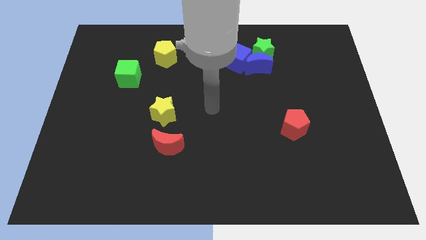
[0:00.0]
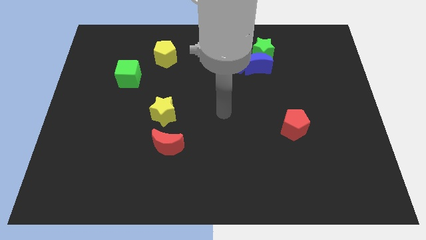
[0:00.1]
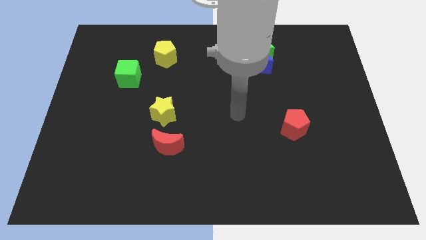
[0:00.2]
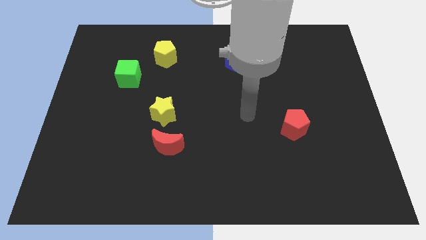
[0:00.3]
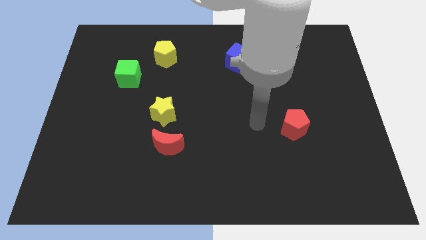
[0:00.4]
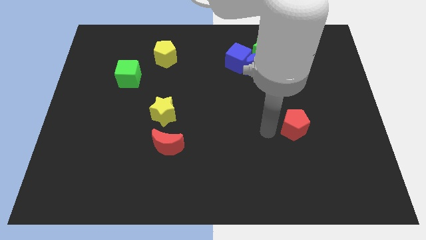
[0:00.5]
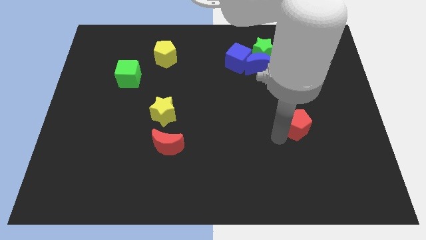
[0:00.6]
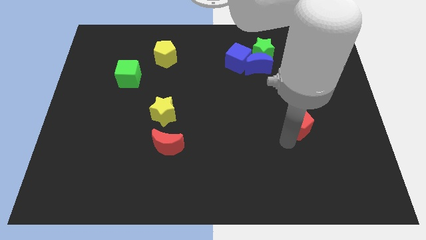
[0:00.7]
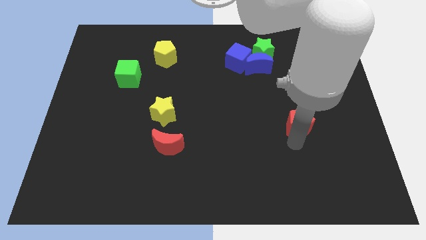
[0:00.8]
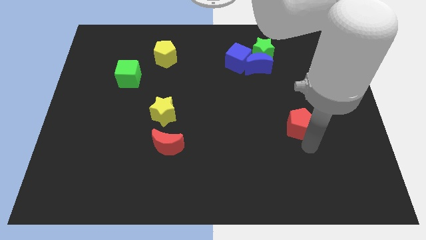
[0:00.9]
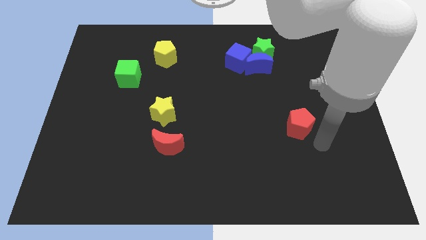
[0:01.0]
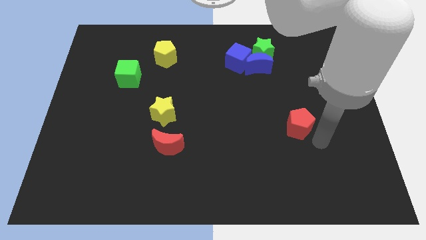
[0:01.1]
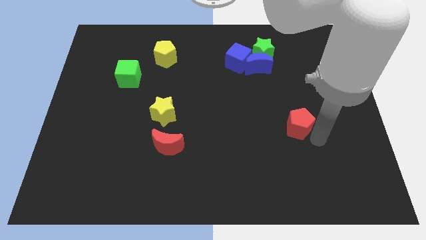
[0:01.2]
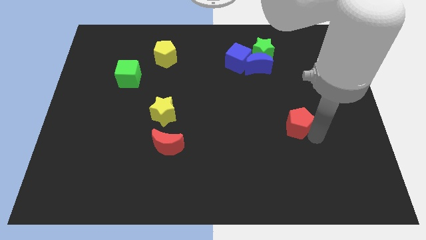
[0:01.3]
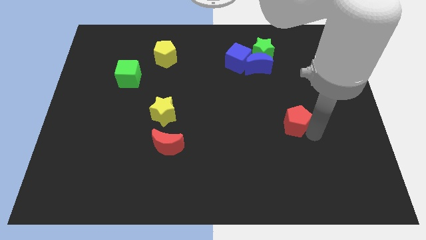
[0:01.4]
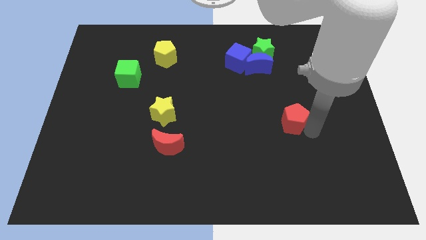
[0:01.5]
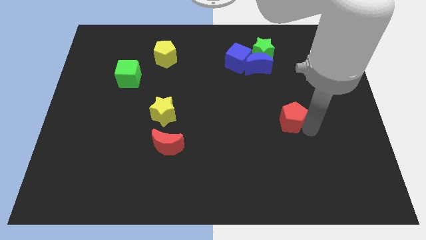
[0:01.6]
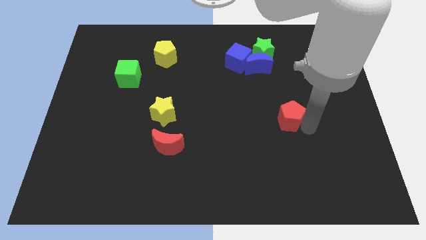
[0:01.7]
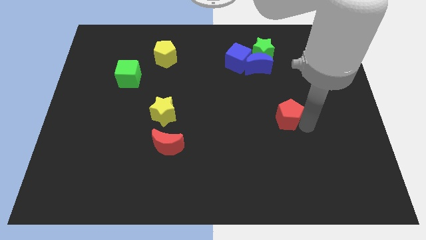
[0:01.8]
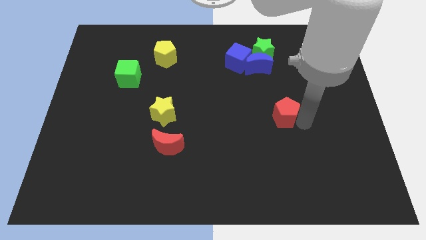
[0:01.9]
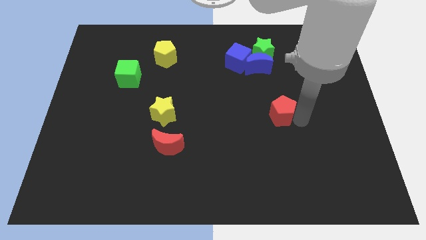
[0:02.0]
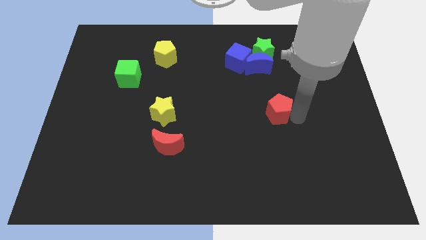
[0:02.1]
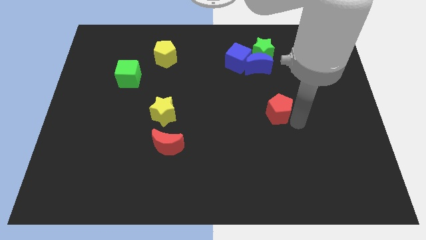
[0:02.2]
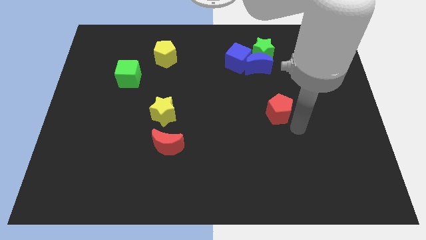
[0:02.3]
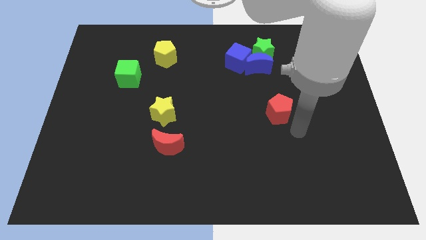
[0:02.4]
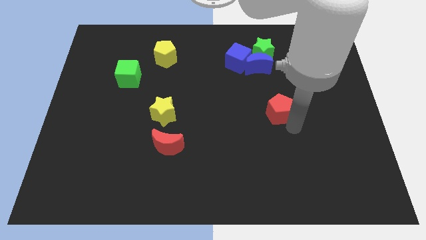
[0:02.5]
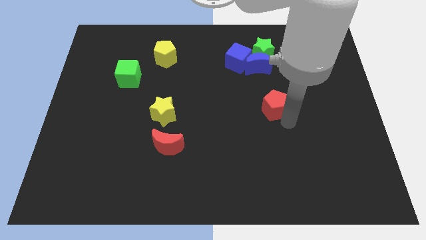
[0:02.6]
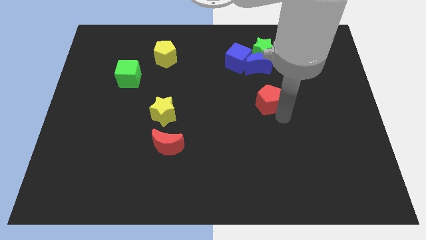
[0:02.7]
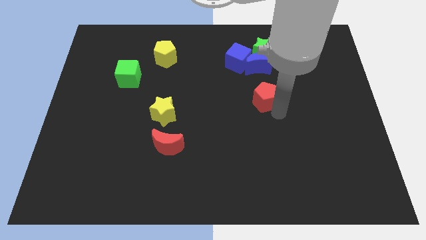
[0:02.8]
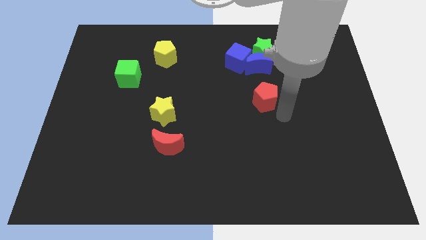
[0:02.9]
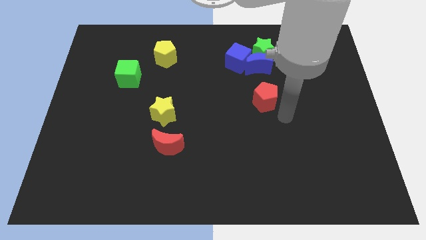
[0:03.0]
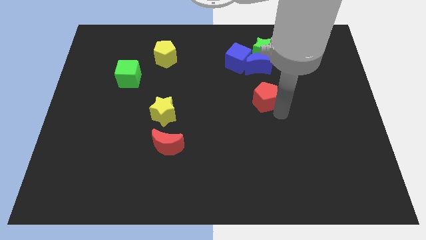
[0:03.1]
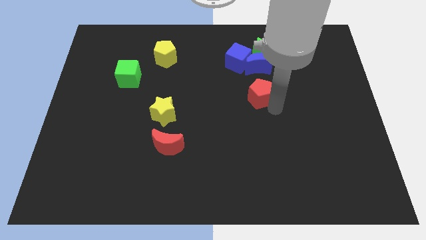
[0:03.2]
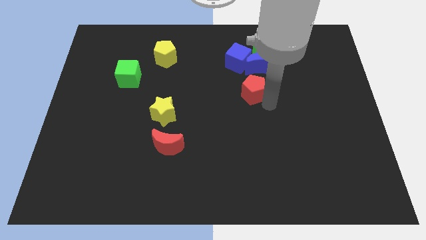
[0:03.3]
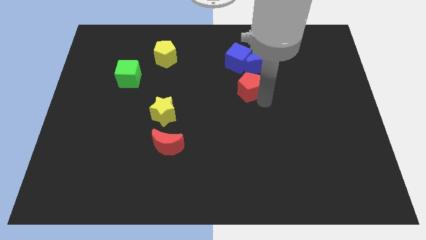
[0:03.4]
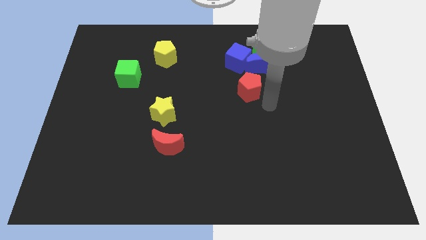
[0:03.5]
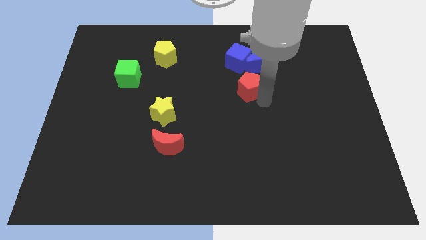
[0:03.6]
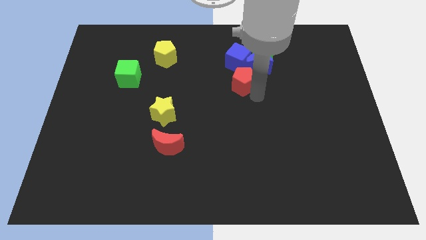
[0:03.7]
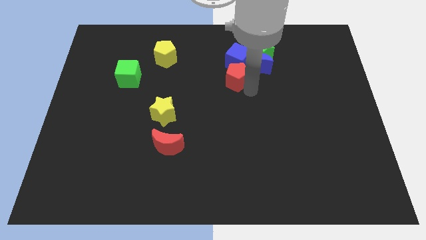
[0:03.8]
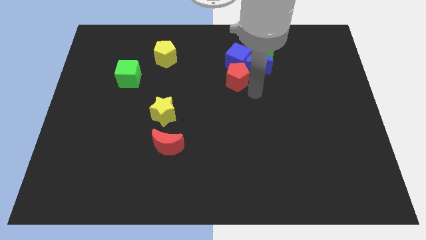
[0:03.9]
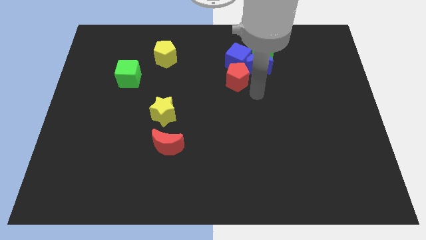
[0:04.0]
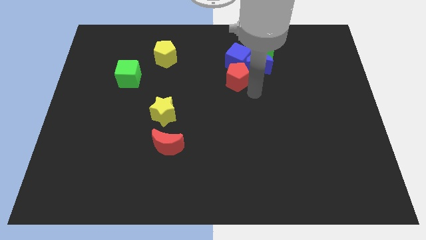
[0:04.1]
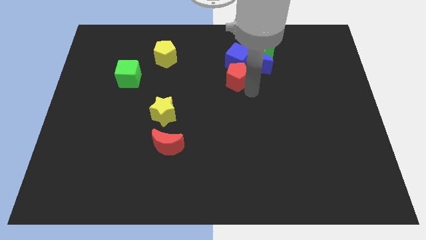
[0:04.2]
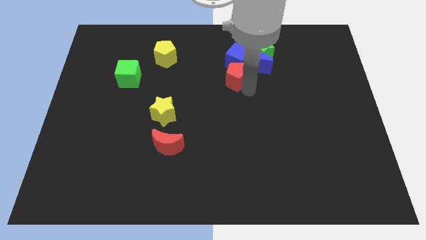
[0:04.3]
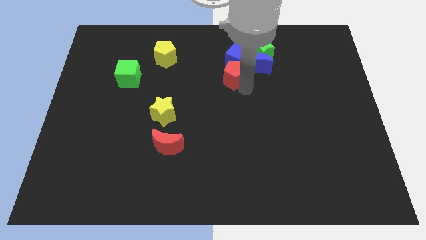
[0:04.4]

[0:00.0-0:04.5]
push the red pentagon up and to the left diagonally

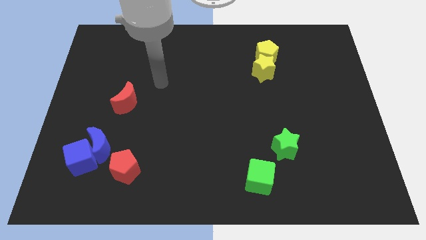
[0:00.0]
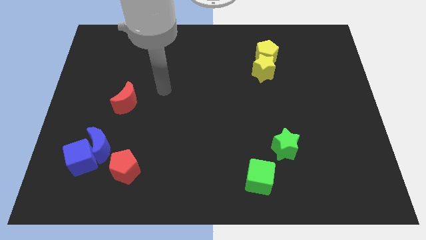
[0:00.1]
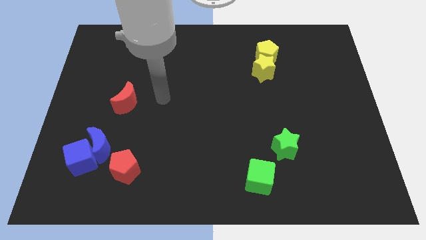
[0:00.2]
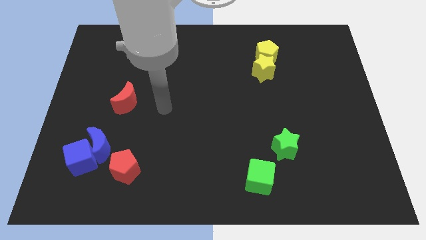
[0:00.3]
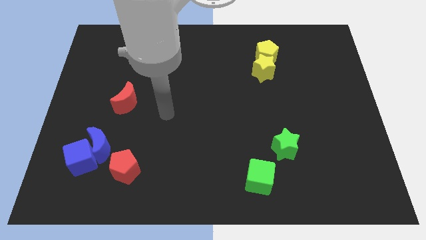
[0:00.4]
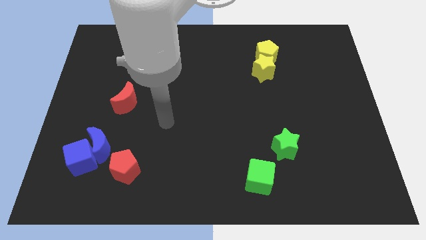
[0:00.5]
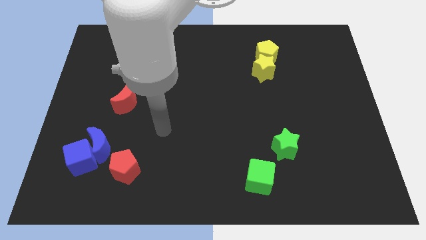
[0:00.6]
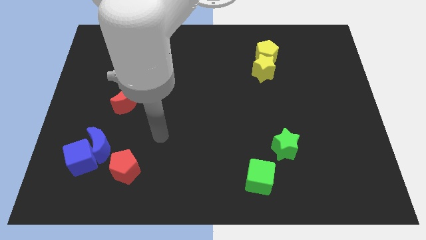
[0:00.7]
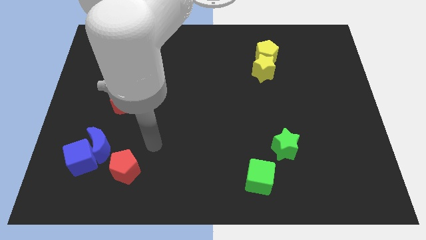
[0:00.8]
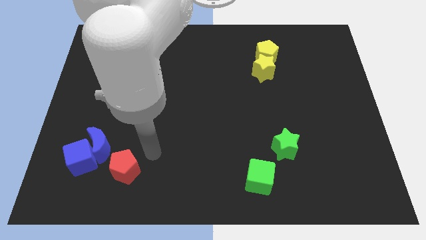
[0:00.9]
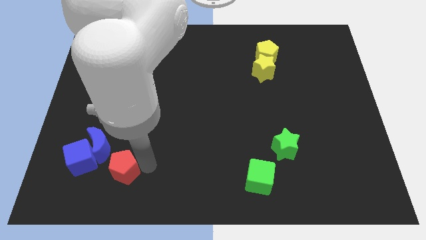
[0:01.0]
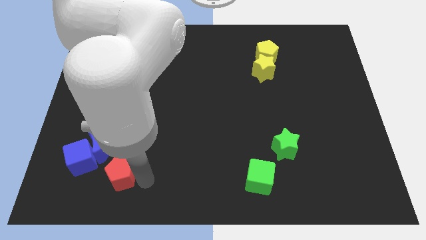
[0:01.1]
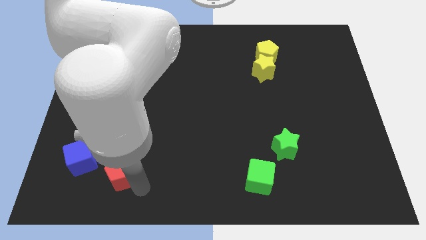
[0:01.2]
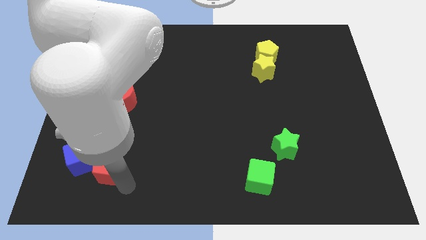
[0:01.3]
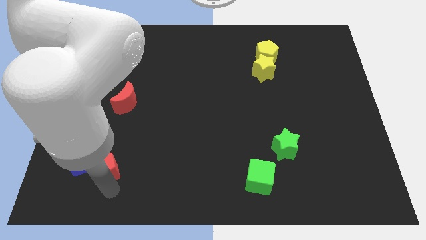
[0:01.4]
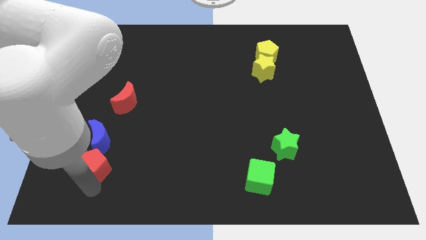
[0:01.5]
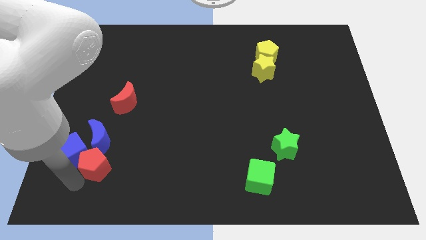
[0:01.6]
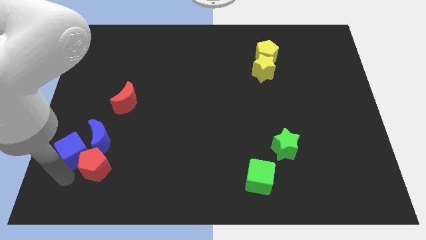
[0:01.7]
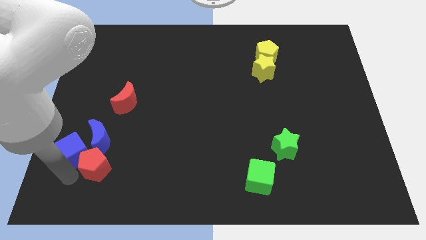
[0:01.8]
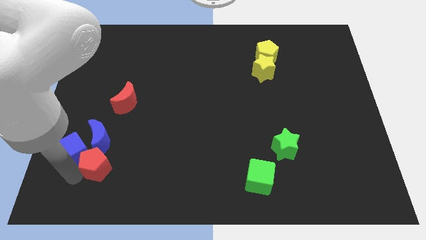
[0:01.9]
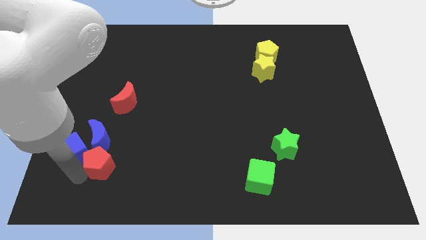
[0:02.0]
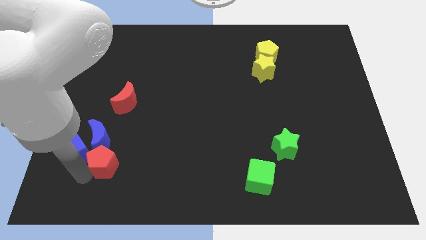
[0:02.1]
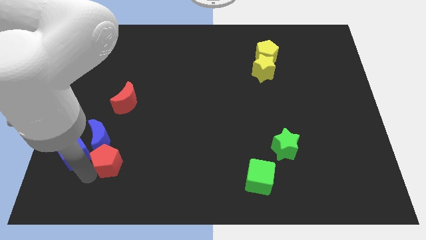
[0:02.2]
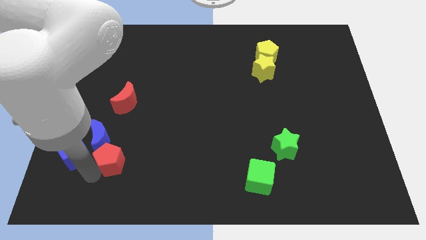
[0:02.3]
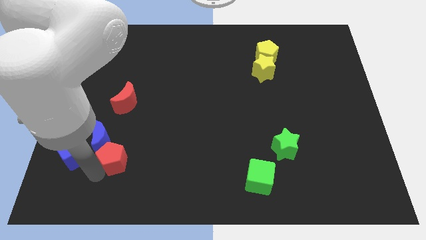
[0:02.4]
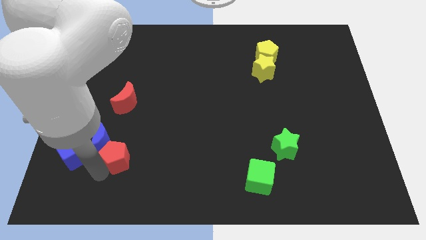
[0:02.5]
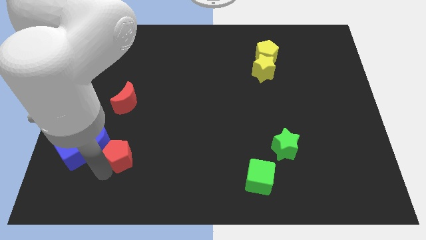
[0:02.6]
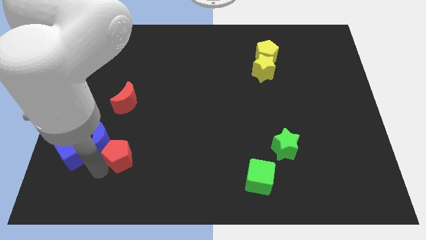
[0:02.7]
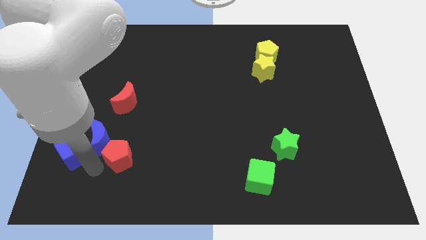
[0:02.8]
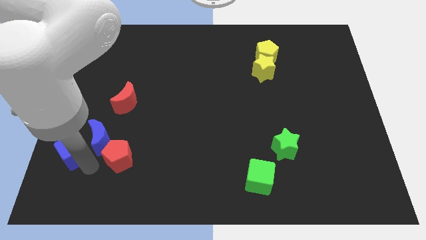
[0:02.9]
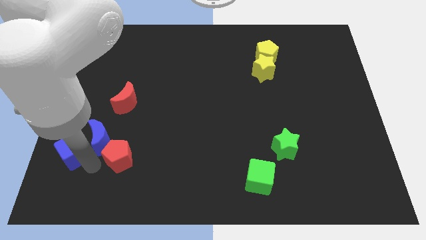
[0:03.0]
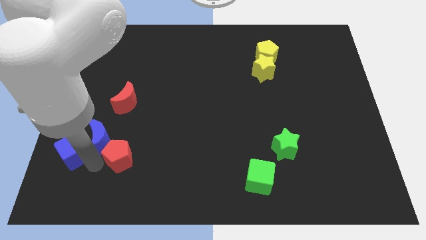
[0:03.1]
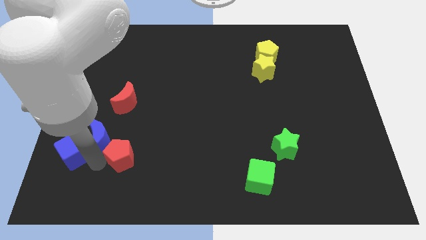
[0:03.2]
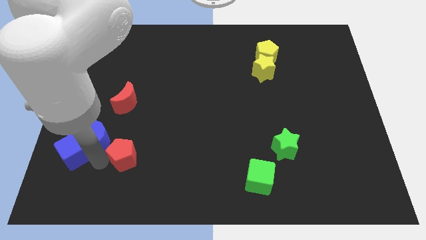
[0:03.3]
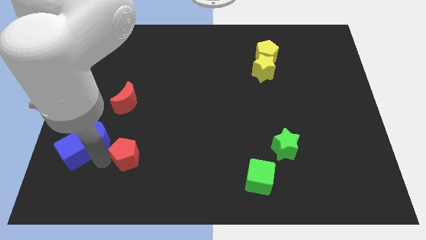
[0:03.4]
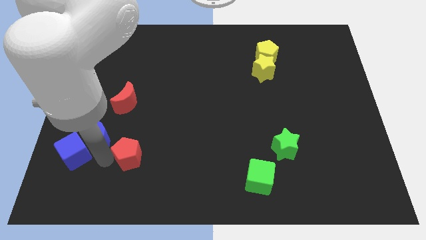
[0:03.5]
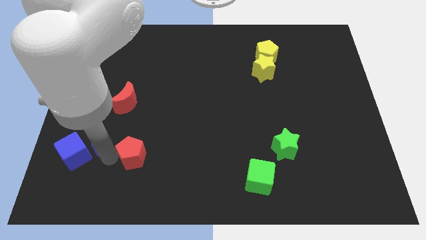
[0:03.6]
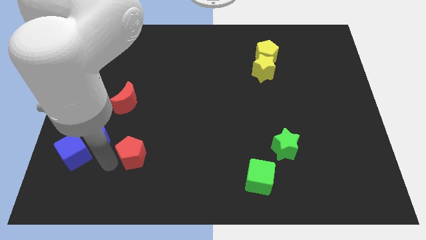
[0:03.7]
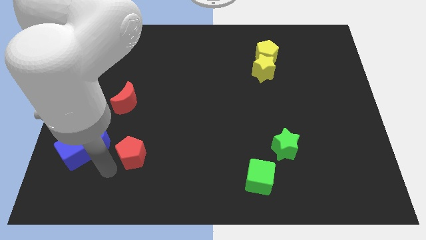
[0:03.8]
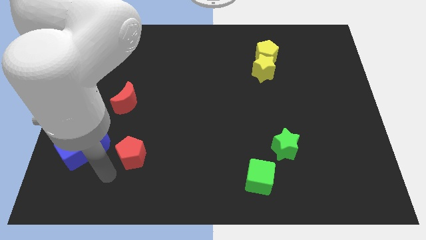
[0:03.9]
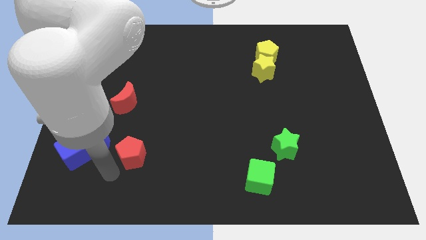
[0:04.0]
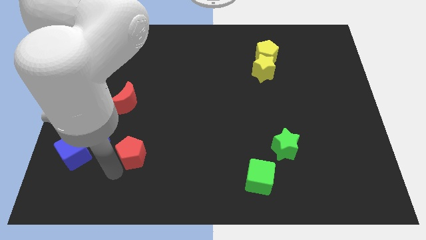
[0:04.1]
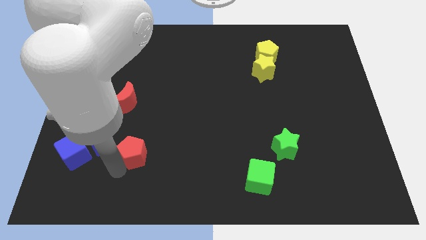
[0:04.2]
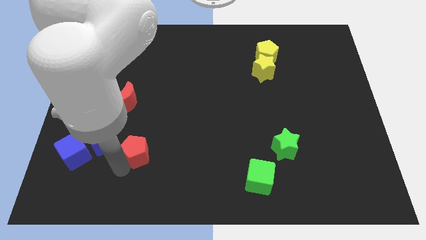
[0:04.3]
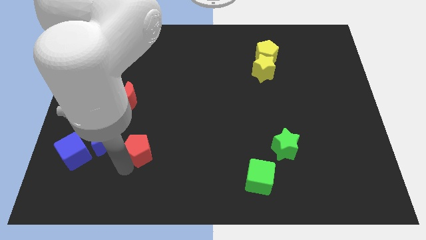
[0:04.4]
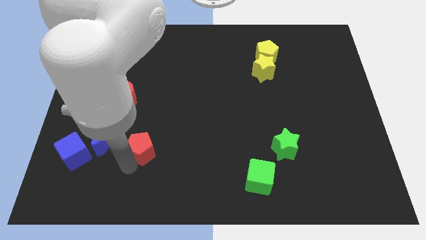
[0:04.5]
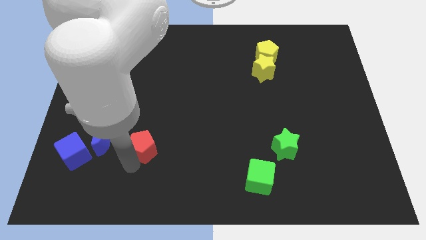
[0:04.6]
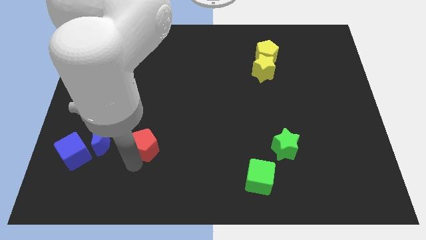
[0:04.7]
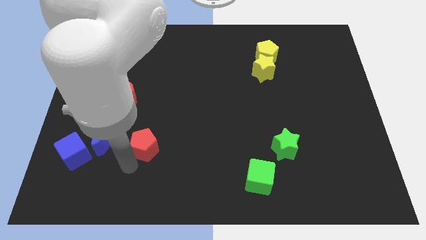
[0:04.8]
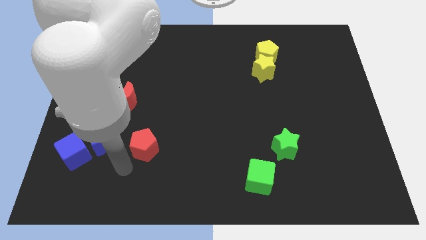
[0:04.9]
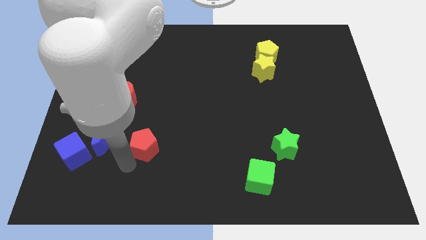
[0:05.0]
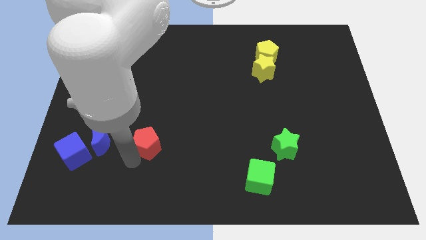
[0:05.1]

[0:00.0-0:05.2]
slightly push the red pentagon upwards and to the right diagonally
